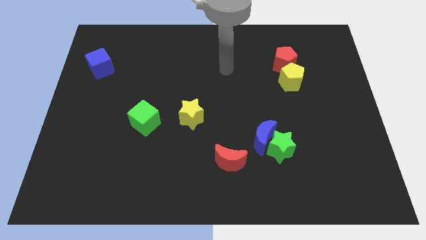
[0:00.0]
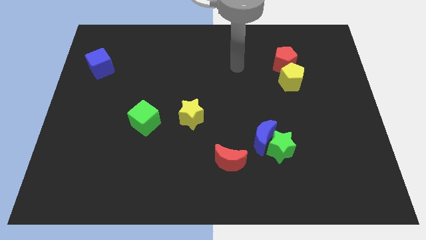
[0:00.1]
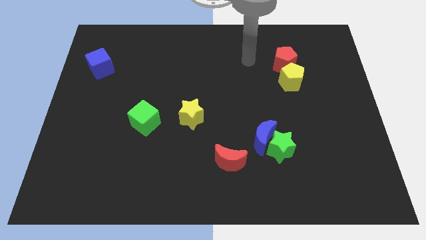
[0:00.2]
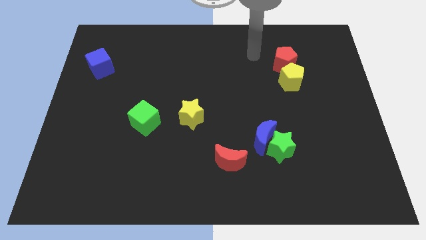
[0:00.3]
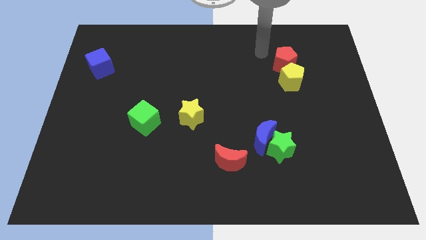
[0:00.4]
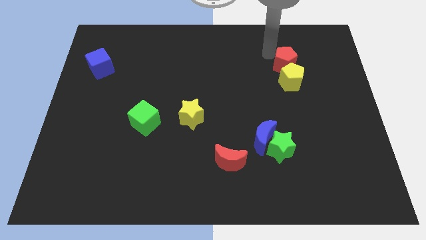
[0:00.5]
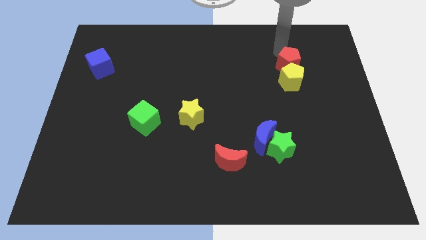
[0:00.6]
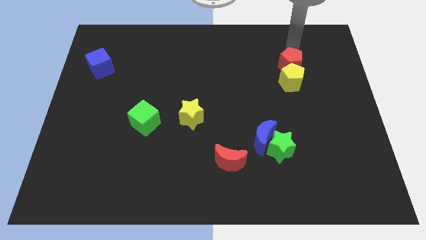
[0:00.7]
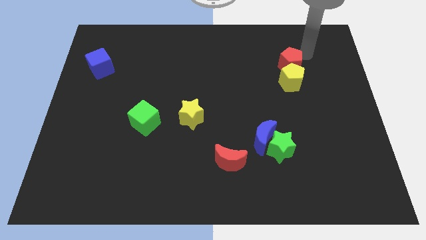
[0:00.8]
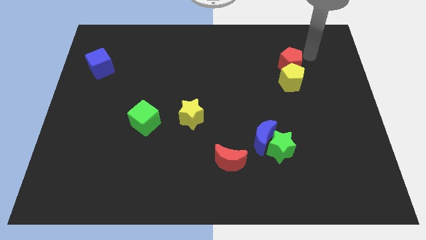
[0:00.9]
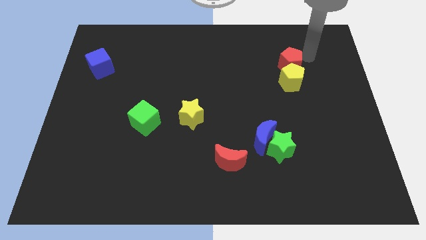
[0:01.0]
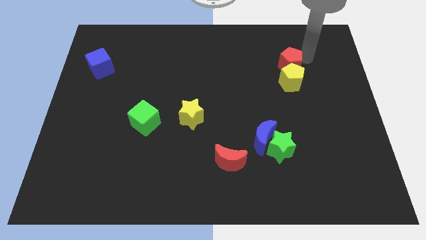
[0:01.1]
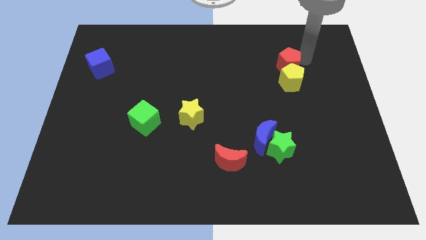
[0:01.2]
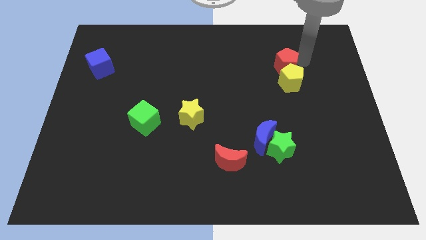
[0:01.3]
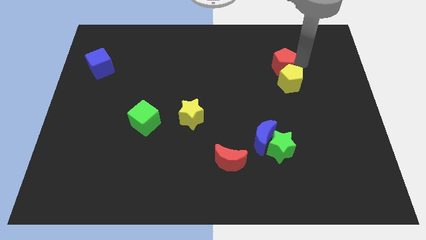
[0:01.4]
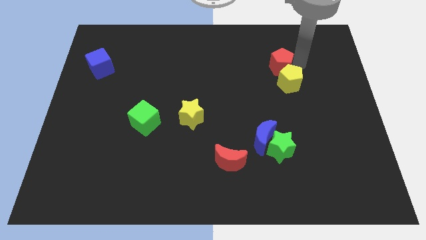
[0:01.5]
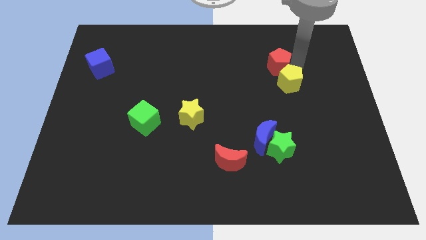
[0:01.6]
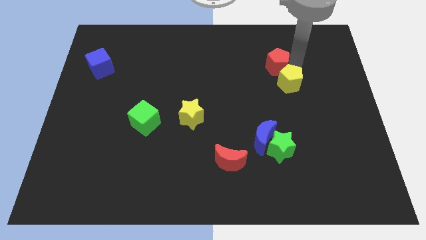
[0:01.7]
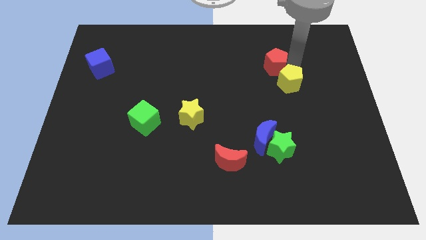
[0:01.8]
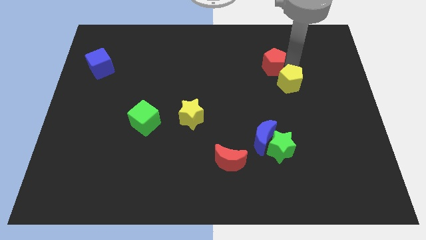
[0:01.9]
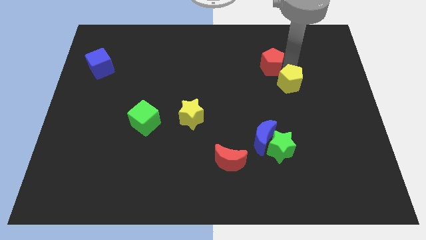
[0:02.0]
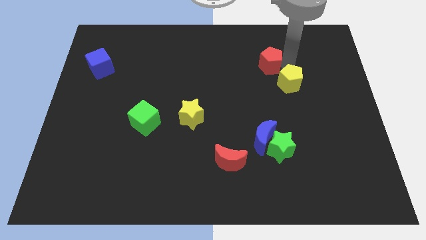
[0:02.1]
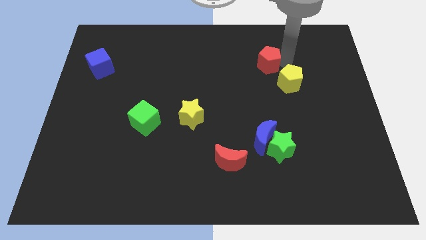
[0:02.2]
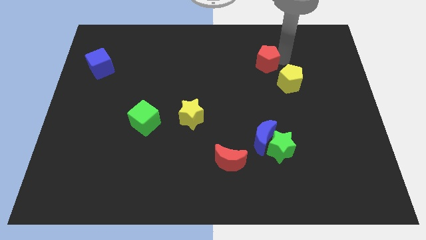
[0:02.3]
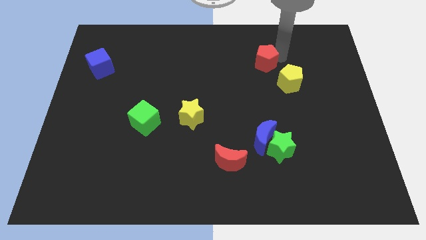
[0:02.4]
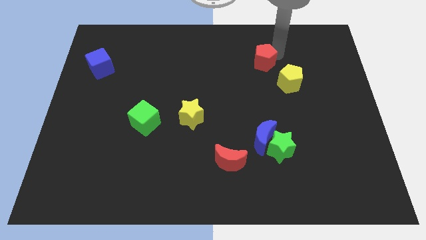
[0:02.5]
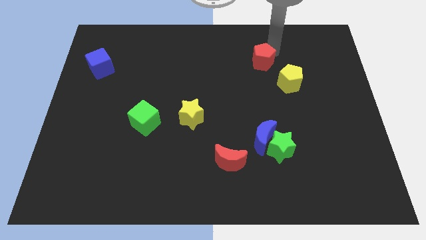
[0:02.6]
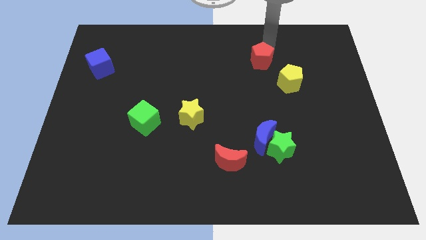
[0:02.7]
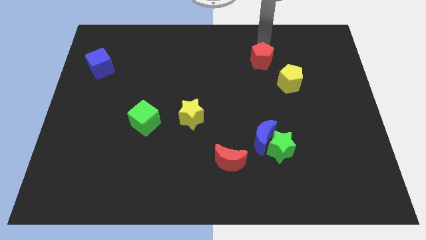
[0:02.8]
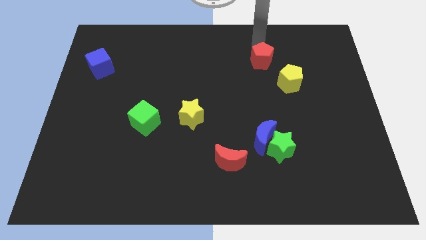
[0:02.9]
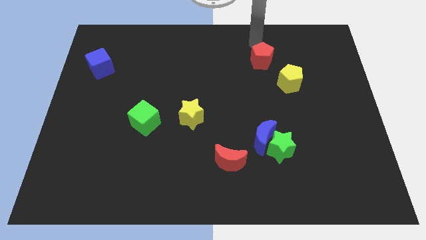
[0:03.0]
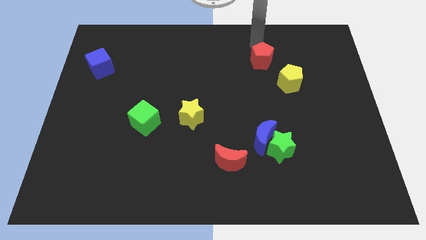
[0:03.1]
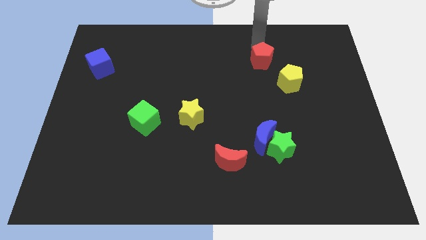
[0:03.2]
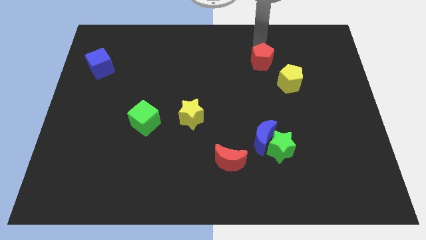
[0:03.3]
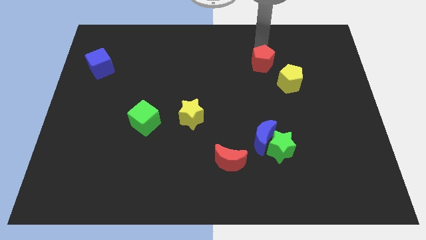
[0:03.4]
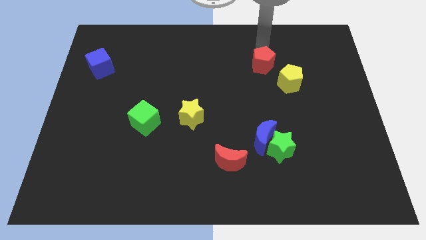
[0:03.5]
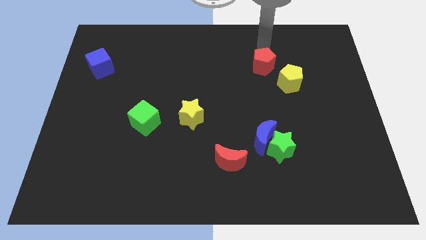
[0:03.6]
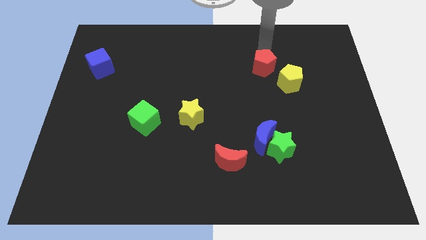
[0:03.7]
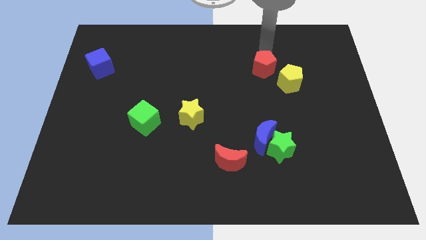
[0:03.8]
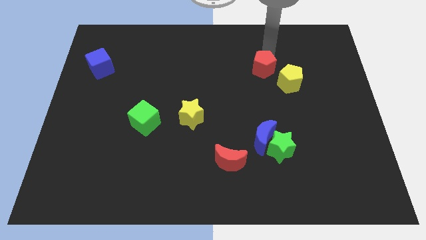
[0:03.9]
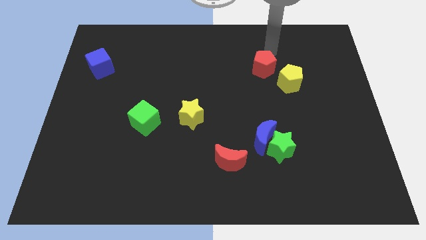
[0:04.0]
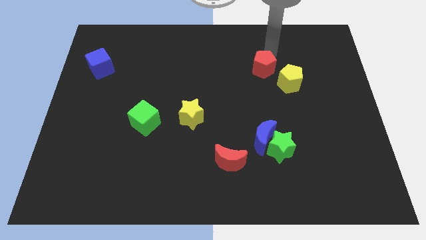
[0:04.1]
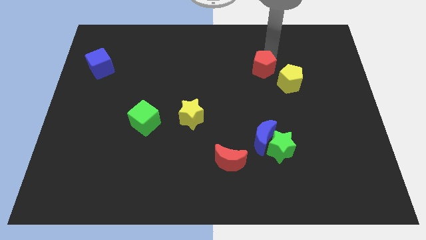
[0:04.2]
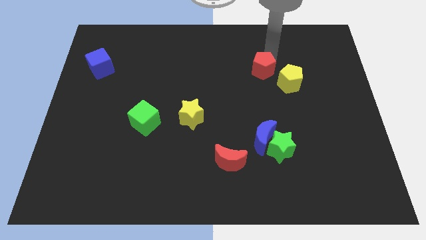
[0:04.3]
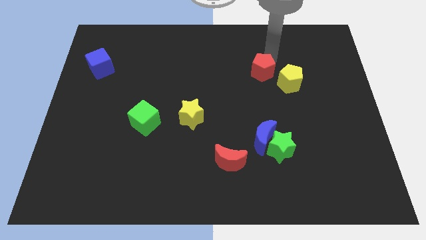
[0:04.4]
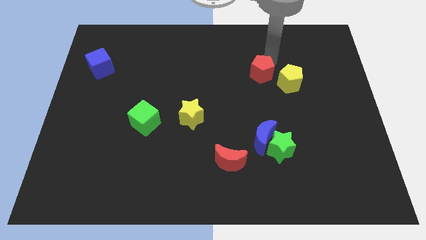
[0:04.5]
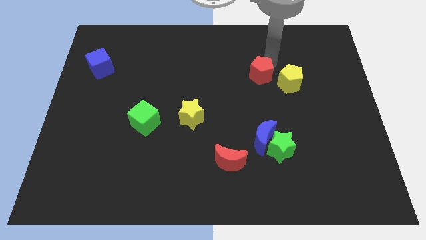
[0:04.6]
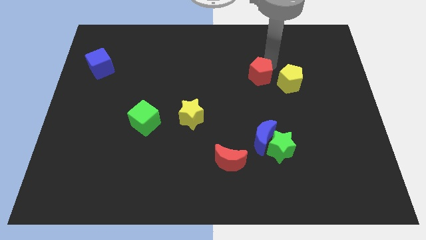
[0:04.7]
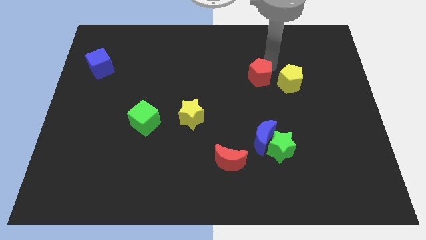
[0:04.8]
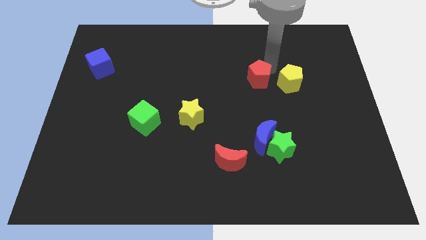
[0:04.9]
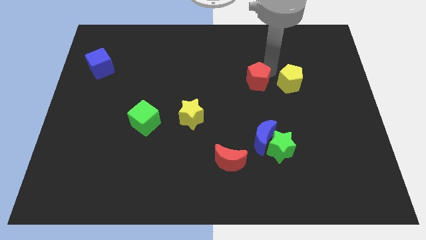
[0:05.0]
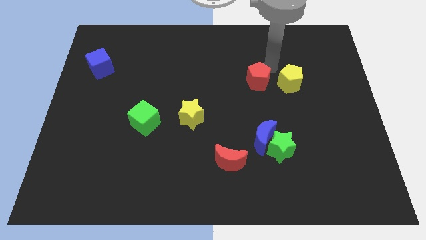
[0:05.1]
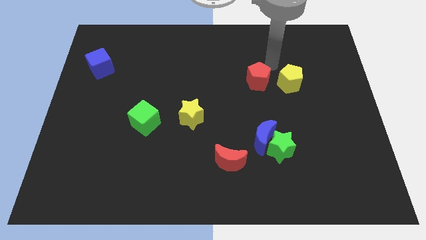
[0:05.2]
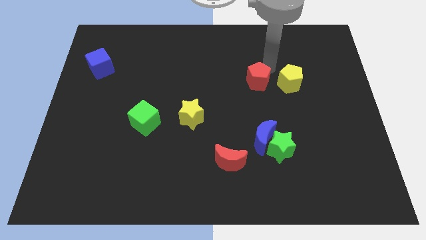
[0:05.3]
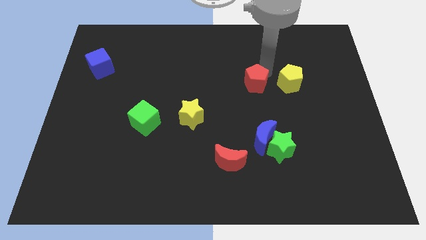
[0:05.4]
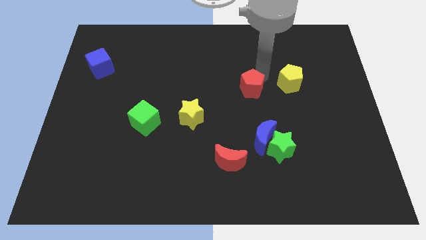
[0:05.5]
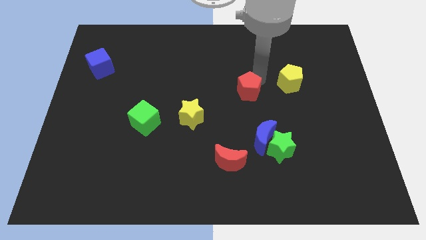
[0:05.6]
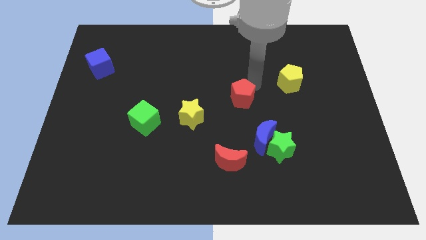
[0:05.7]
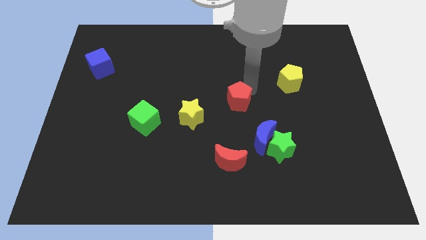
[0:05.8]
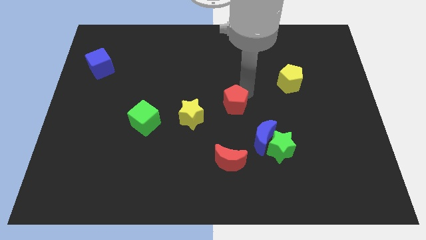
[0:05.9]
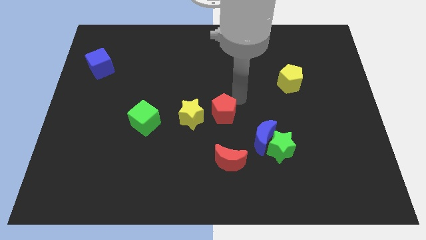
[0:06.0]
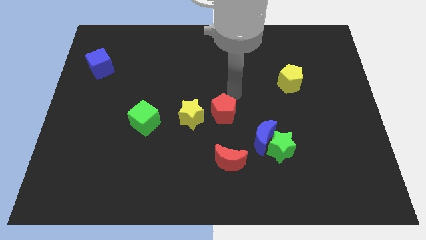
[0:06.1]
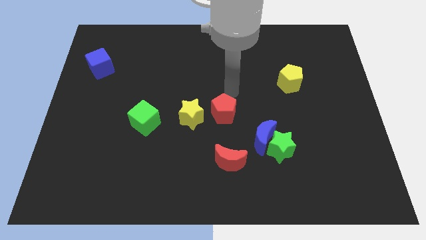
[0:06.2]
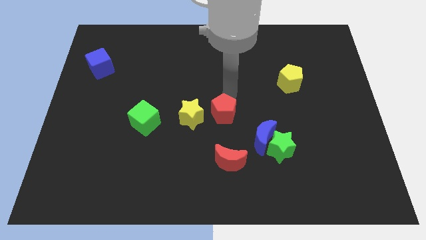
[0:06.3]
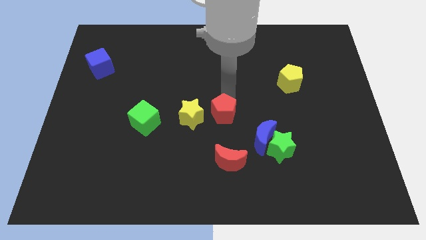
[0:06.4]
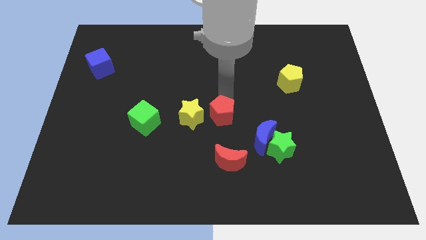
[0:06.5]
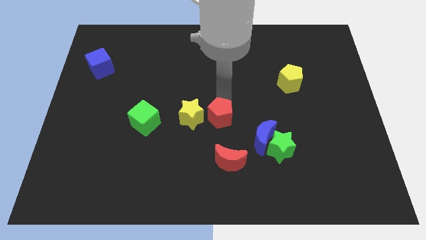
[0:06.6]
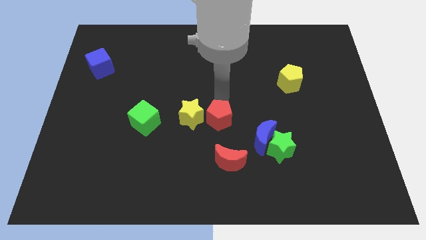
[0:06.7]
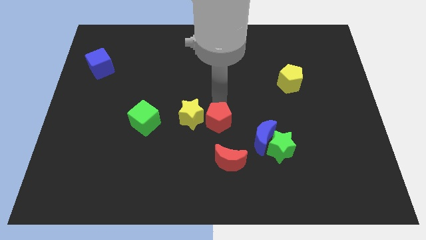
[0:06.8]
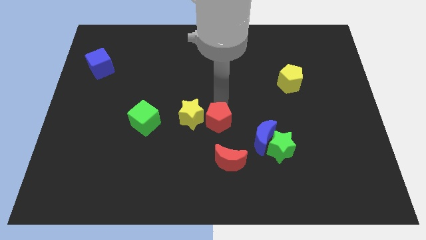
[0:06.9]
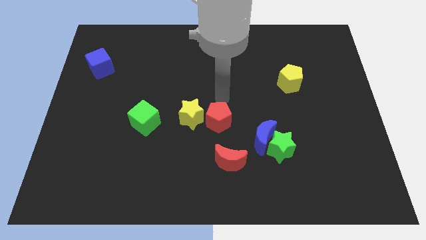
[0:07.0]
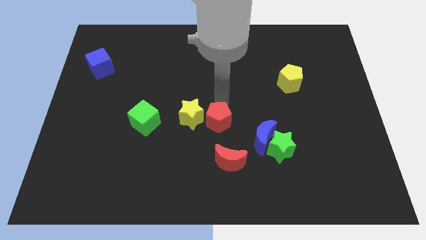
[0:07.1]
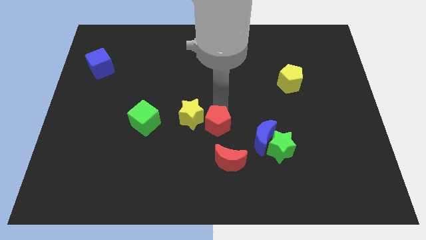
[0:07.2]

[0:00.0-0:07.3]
push the red pentagon to the left of the blue moon
